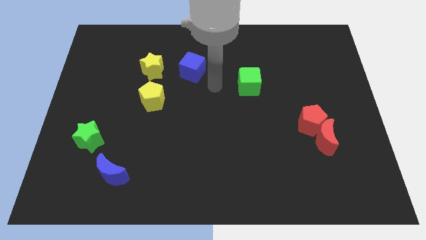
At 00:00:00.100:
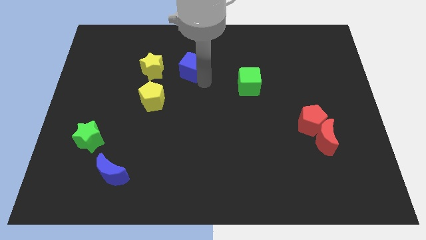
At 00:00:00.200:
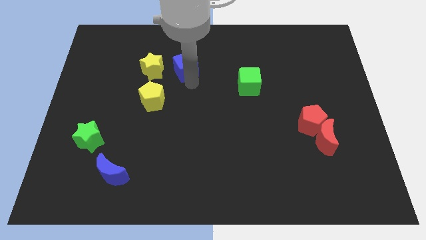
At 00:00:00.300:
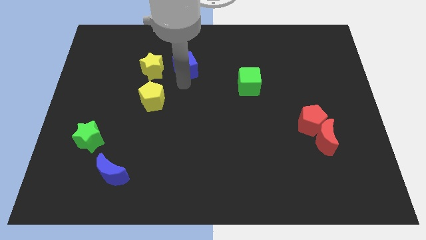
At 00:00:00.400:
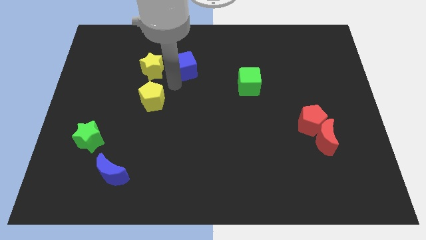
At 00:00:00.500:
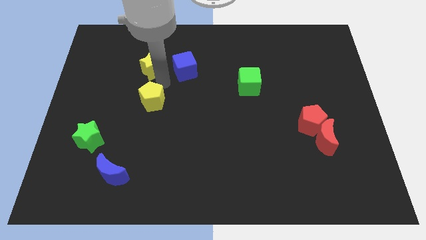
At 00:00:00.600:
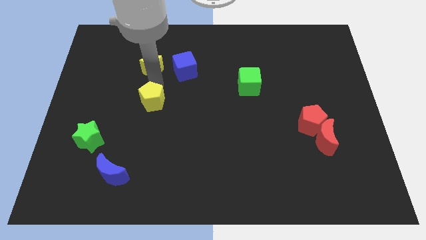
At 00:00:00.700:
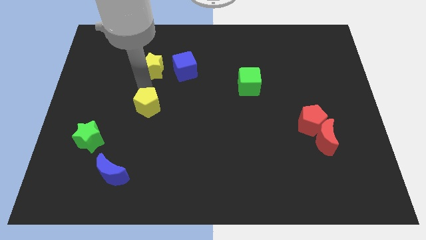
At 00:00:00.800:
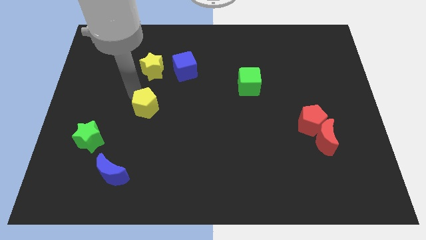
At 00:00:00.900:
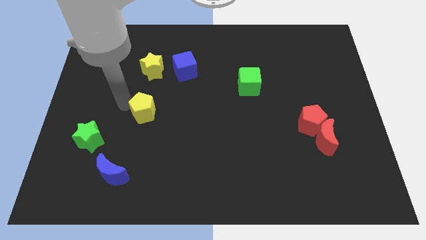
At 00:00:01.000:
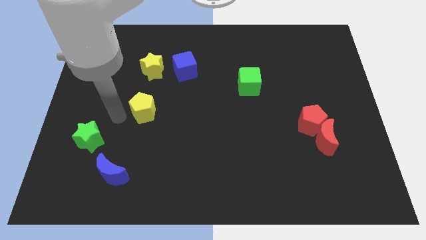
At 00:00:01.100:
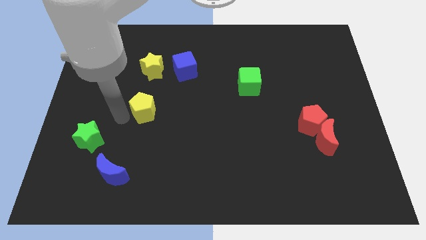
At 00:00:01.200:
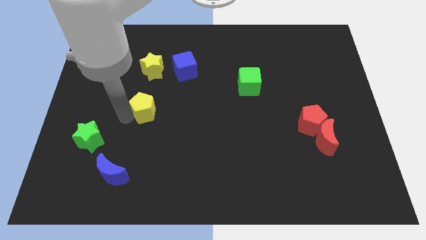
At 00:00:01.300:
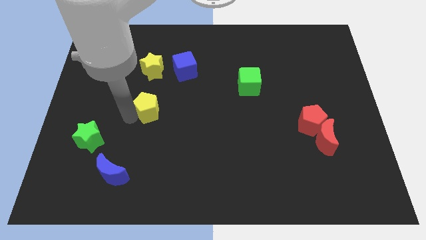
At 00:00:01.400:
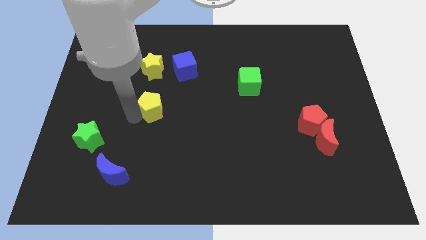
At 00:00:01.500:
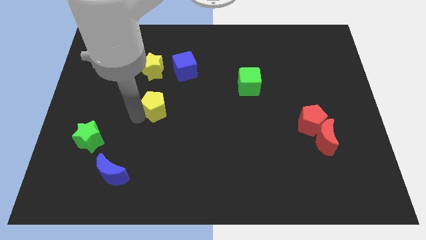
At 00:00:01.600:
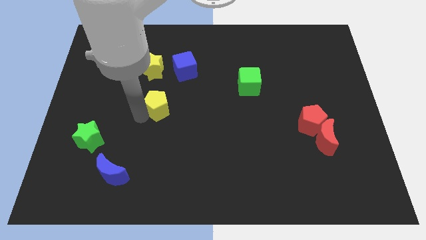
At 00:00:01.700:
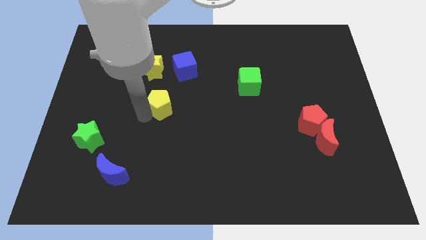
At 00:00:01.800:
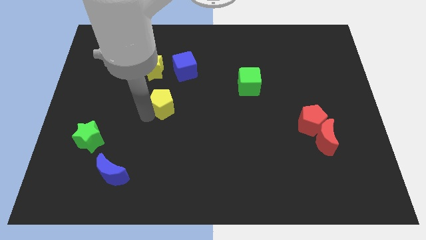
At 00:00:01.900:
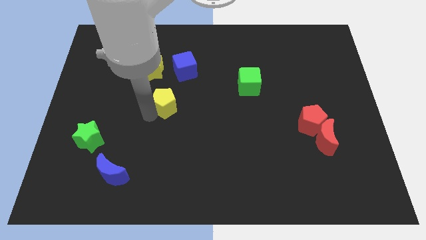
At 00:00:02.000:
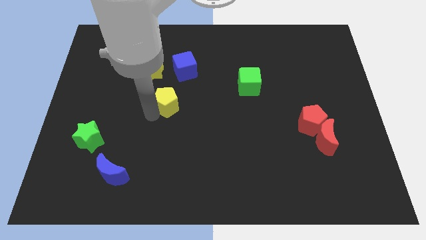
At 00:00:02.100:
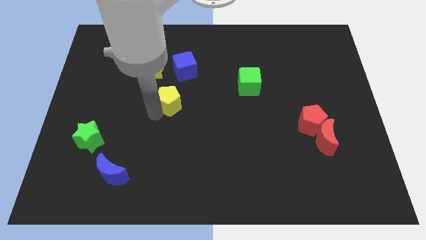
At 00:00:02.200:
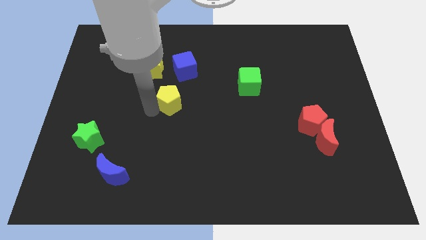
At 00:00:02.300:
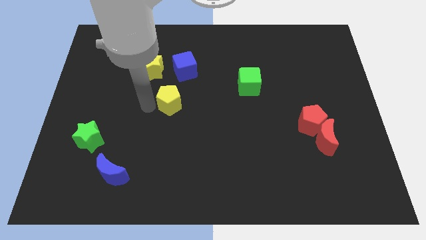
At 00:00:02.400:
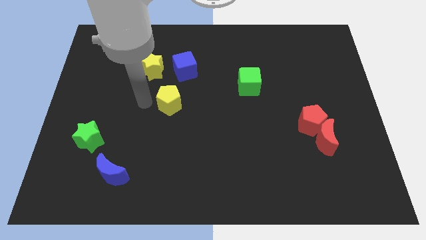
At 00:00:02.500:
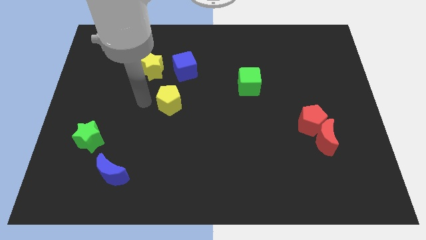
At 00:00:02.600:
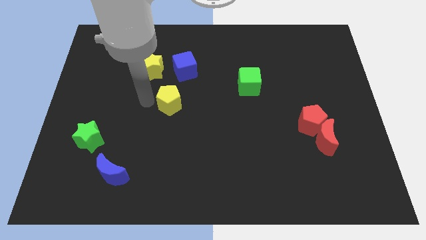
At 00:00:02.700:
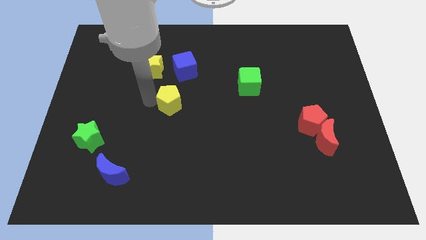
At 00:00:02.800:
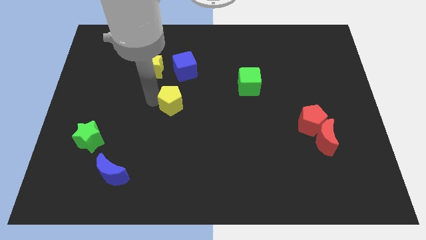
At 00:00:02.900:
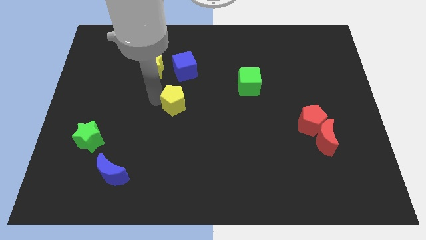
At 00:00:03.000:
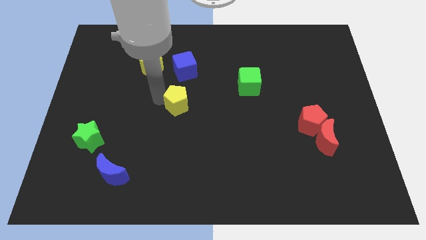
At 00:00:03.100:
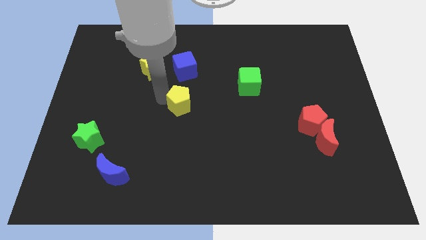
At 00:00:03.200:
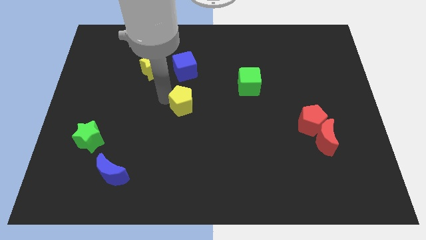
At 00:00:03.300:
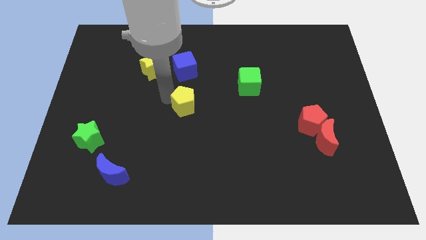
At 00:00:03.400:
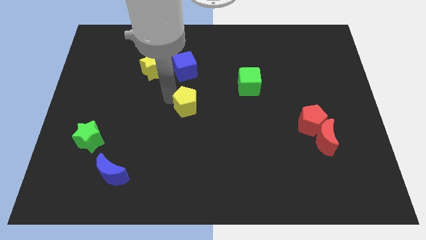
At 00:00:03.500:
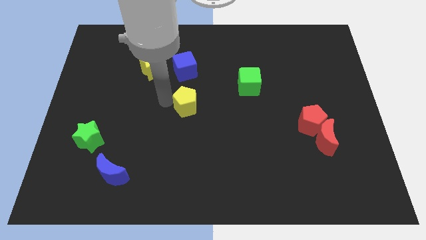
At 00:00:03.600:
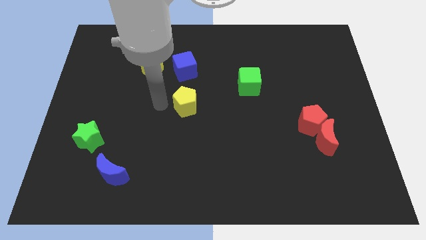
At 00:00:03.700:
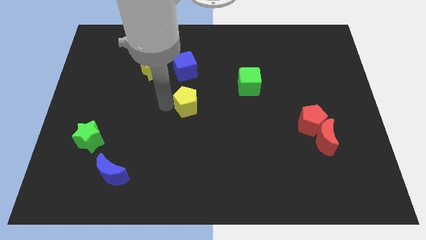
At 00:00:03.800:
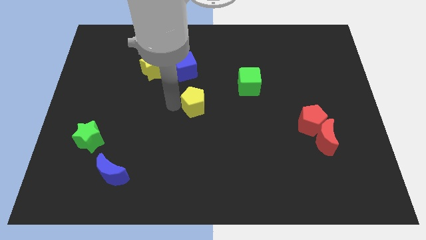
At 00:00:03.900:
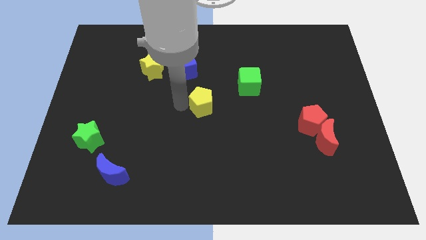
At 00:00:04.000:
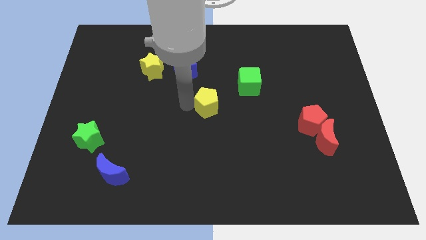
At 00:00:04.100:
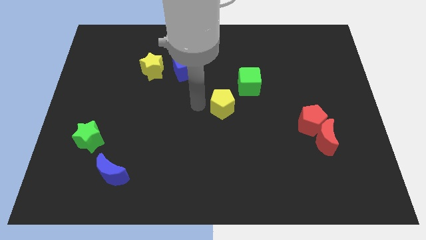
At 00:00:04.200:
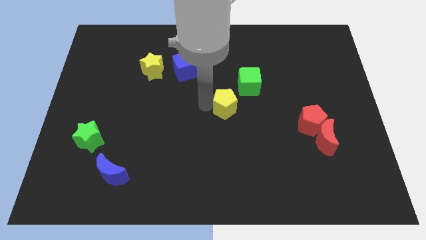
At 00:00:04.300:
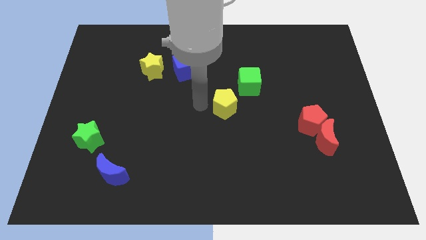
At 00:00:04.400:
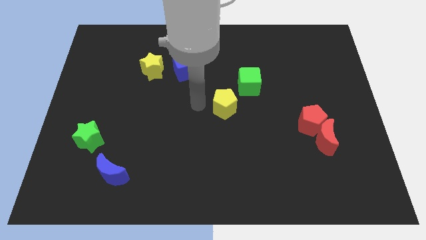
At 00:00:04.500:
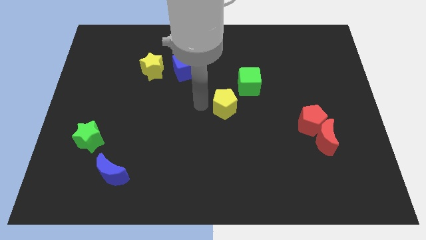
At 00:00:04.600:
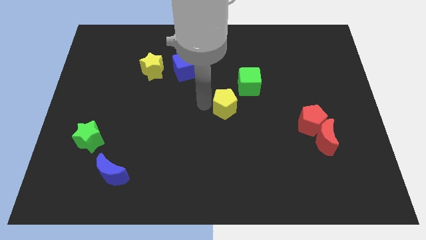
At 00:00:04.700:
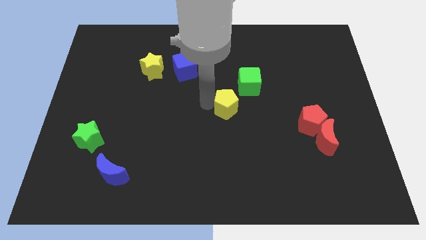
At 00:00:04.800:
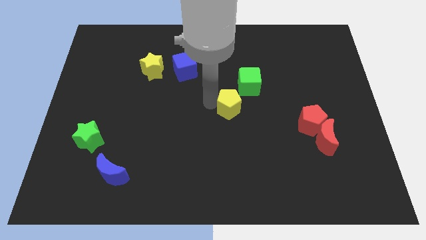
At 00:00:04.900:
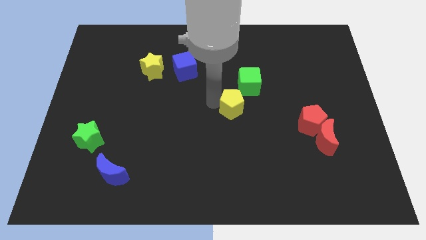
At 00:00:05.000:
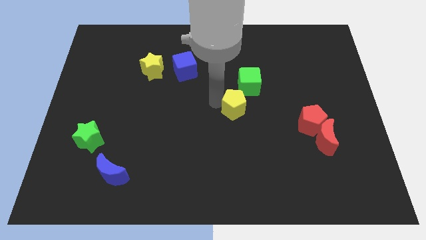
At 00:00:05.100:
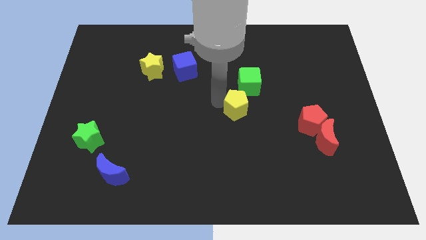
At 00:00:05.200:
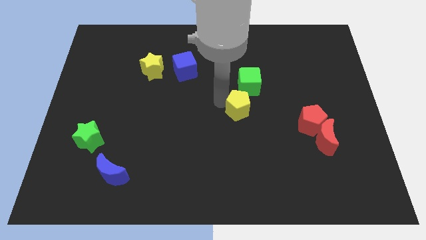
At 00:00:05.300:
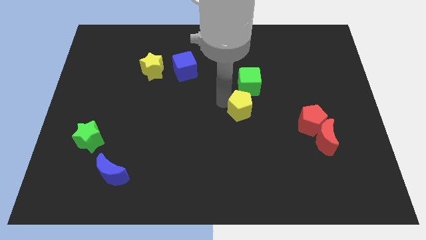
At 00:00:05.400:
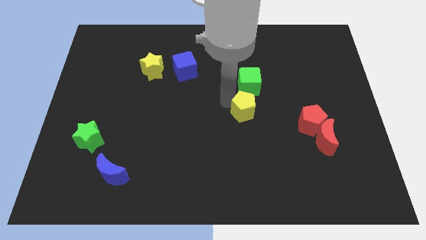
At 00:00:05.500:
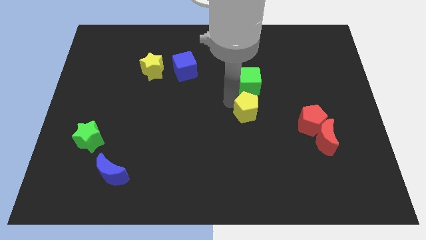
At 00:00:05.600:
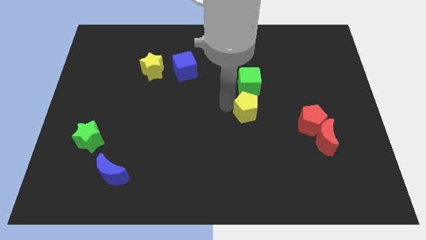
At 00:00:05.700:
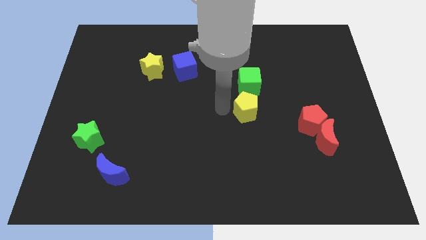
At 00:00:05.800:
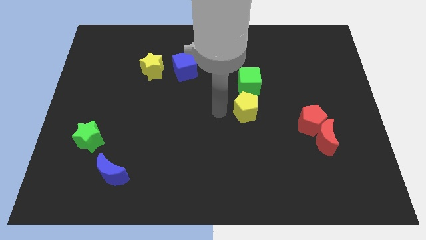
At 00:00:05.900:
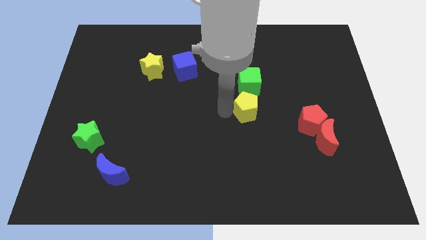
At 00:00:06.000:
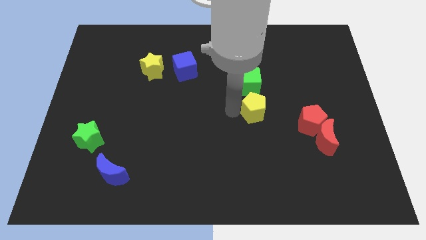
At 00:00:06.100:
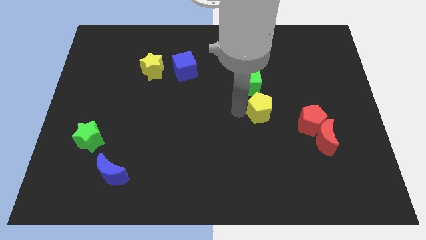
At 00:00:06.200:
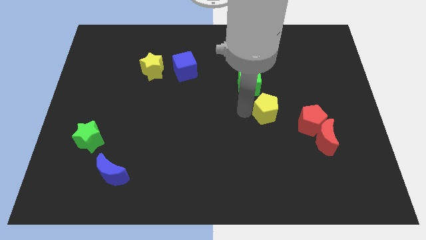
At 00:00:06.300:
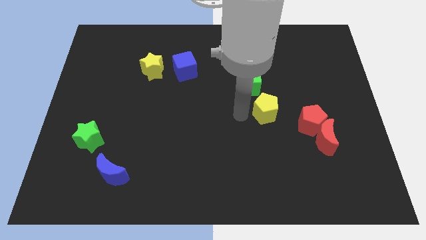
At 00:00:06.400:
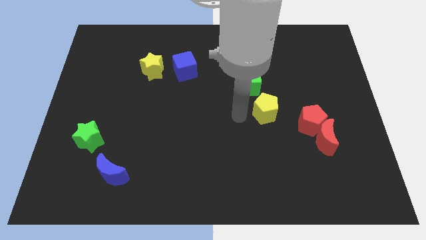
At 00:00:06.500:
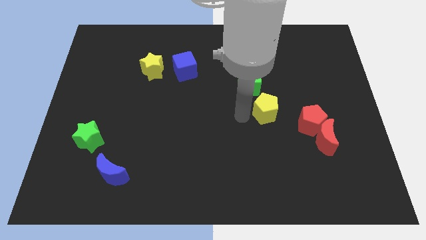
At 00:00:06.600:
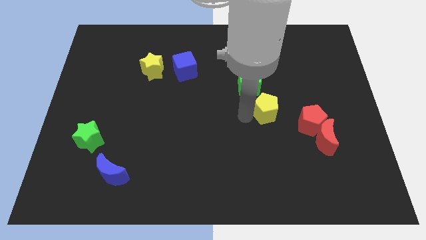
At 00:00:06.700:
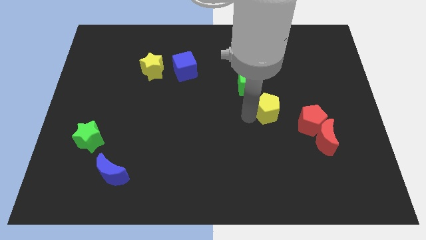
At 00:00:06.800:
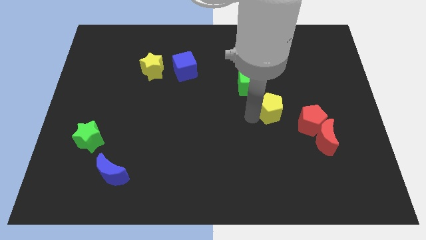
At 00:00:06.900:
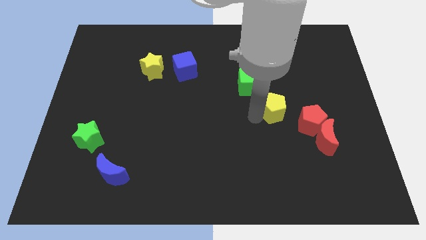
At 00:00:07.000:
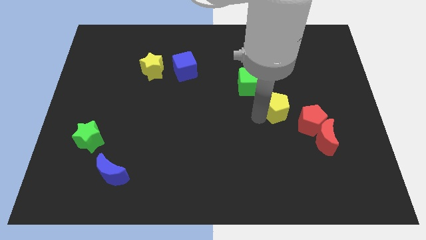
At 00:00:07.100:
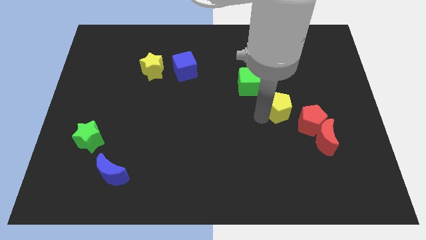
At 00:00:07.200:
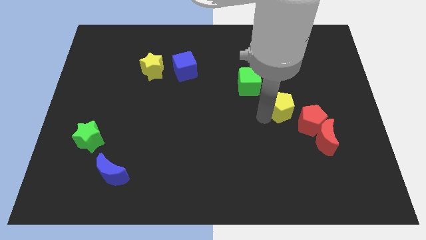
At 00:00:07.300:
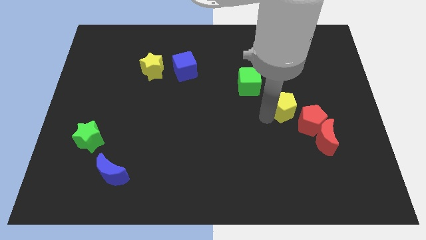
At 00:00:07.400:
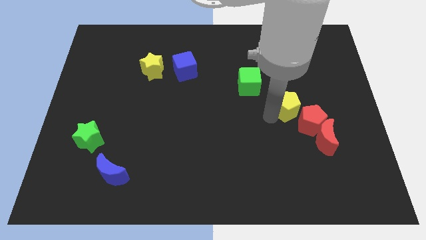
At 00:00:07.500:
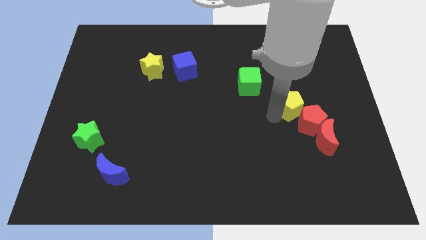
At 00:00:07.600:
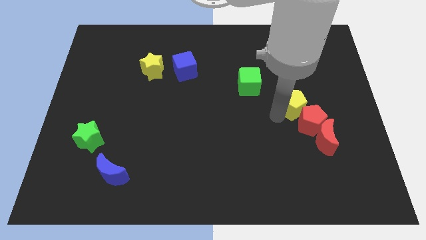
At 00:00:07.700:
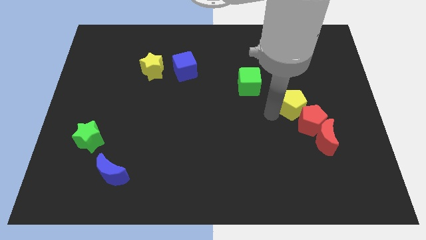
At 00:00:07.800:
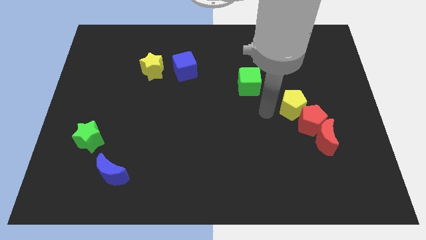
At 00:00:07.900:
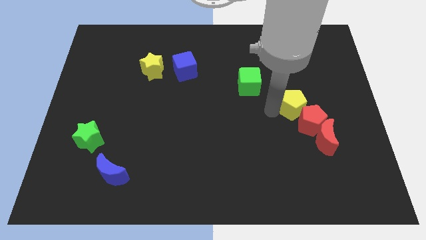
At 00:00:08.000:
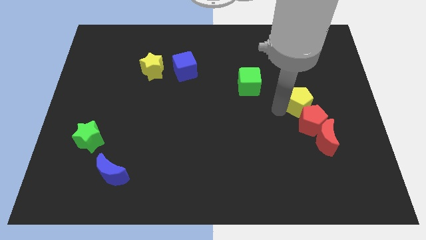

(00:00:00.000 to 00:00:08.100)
put the yellow pentagon to the top side of the red moon
